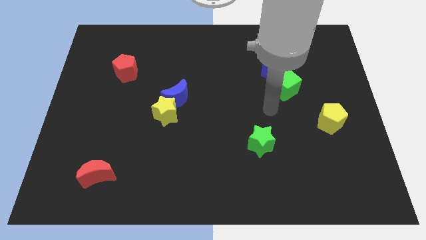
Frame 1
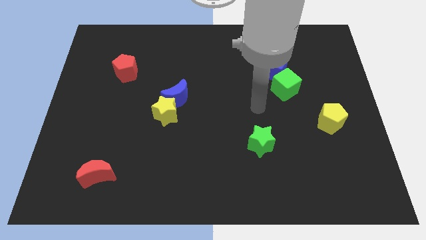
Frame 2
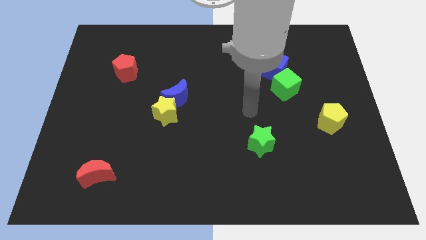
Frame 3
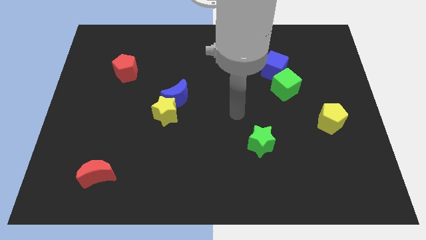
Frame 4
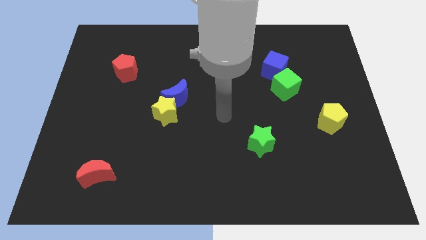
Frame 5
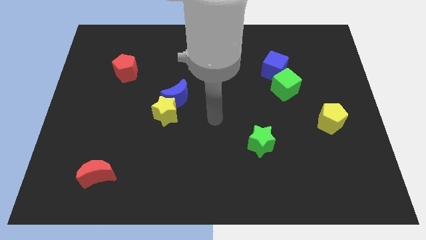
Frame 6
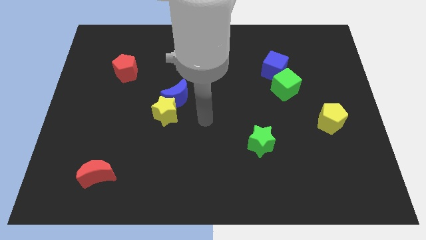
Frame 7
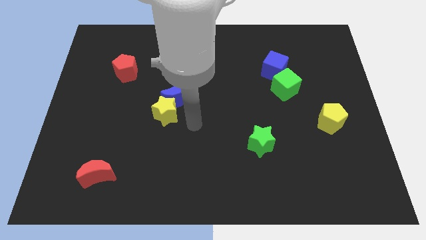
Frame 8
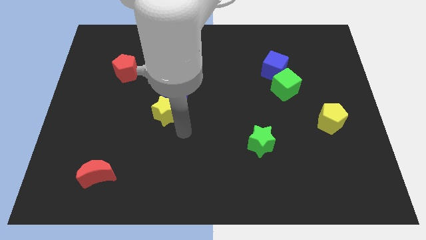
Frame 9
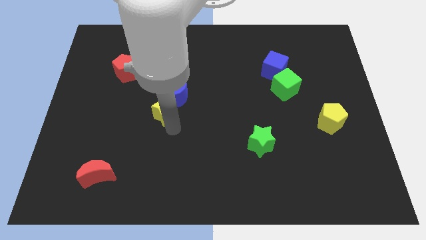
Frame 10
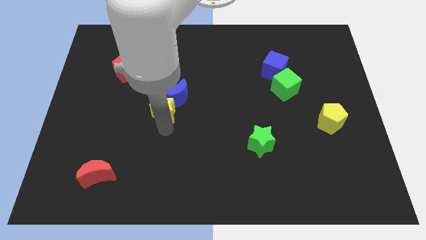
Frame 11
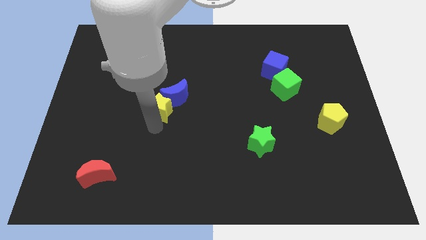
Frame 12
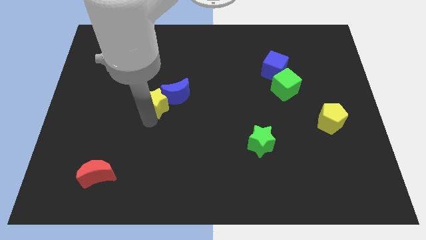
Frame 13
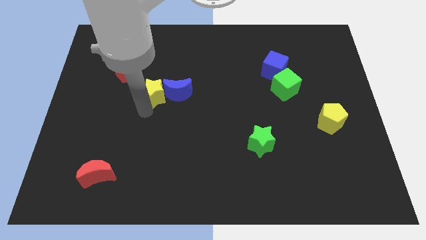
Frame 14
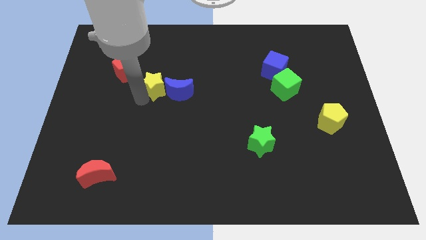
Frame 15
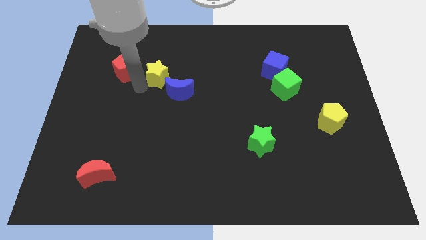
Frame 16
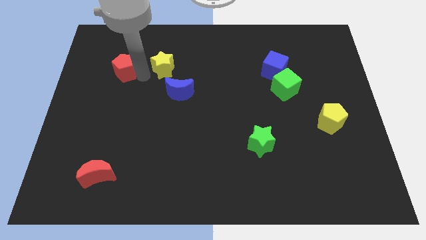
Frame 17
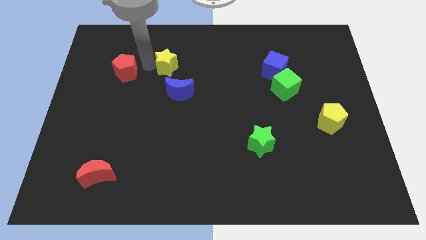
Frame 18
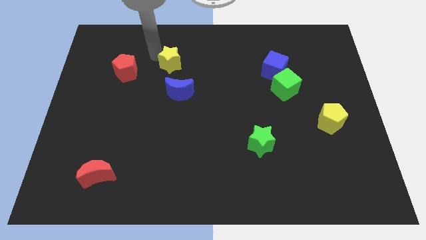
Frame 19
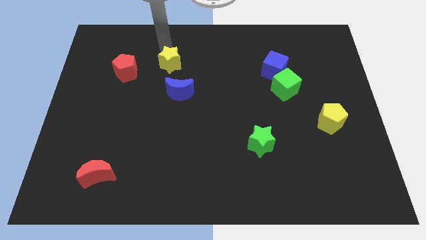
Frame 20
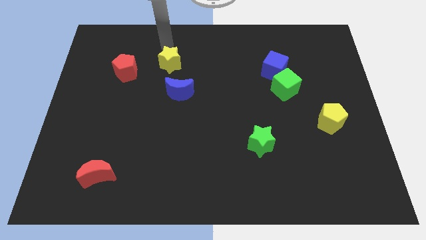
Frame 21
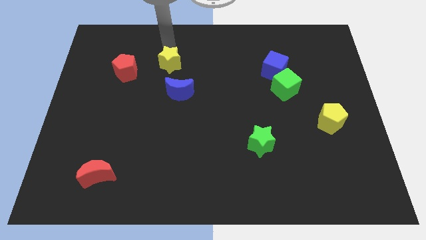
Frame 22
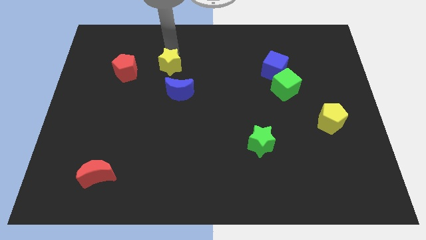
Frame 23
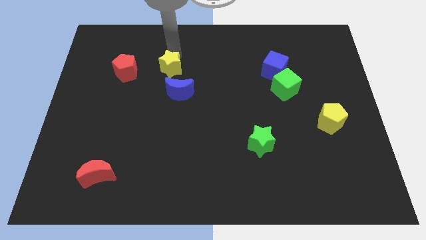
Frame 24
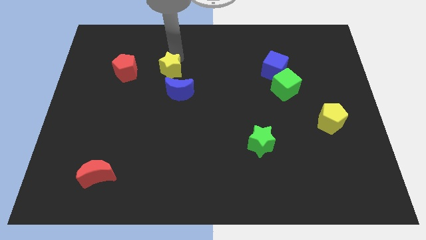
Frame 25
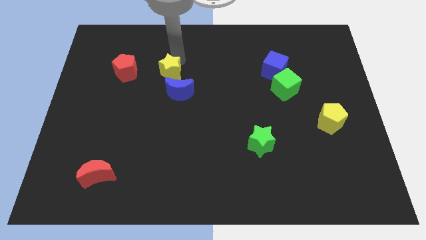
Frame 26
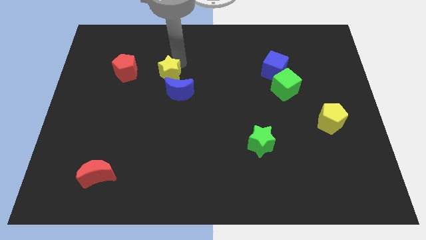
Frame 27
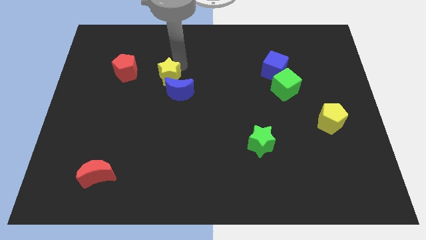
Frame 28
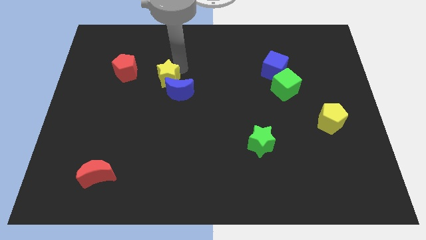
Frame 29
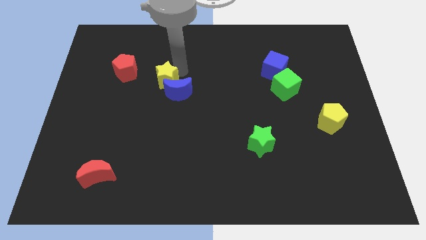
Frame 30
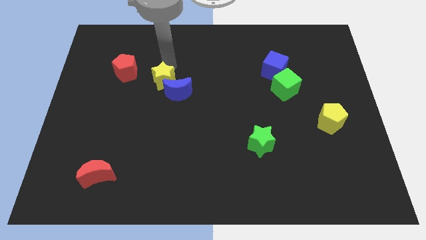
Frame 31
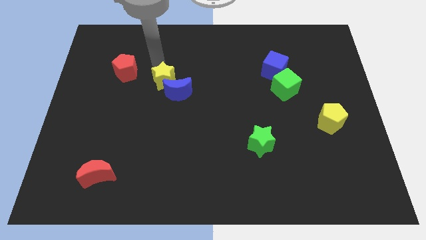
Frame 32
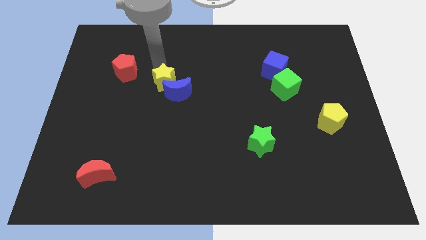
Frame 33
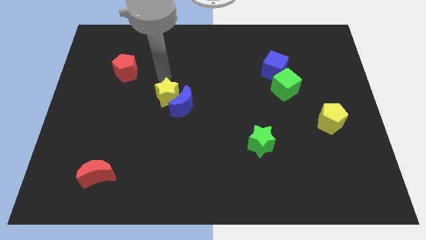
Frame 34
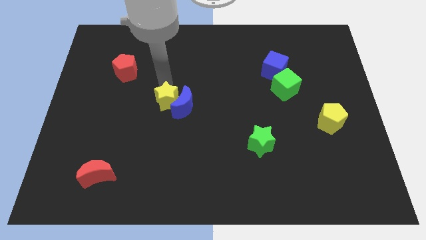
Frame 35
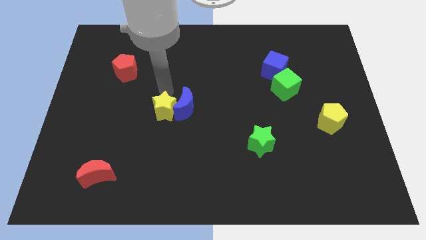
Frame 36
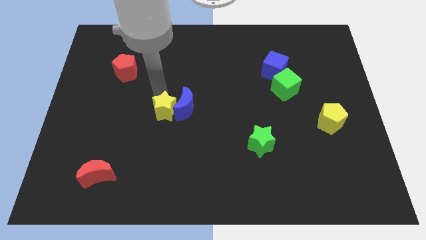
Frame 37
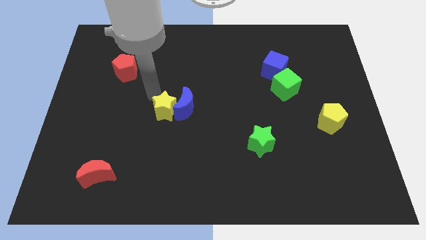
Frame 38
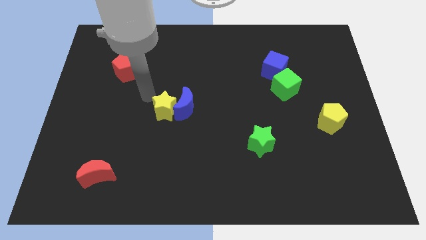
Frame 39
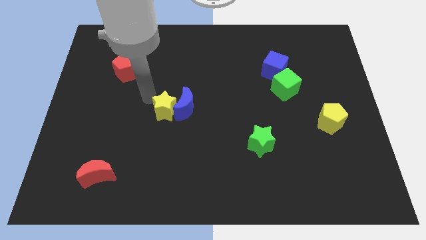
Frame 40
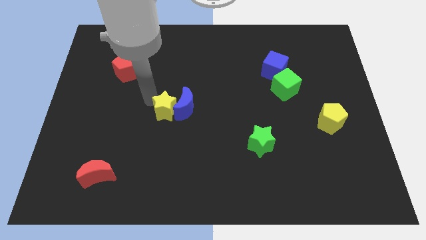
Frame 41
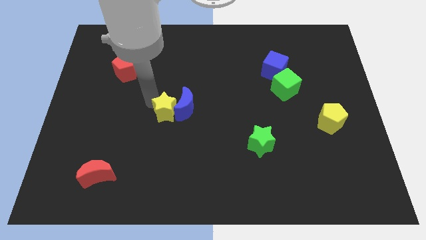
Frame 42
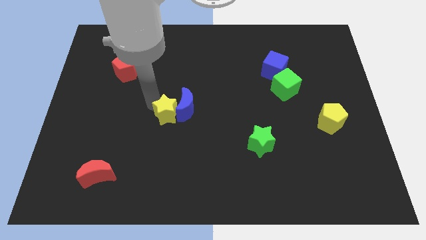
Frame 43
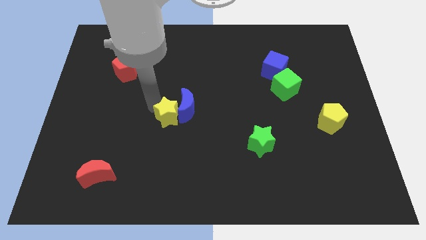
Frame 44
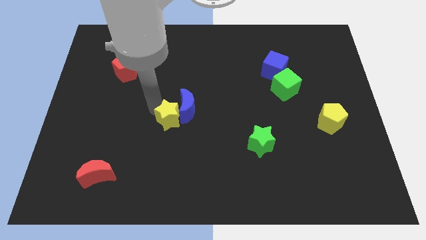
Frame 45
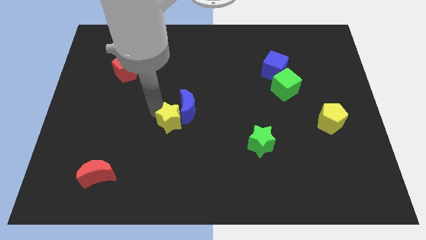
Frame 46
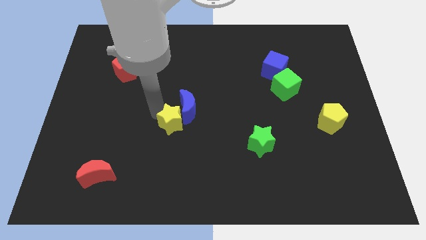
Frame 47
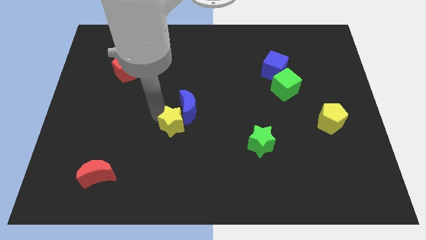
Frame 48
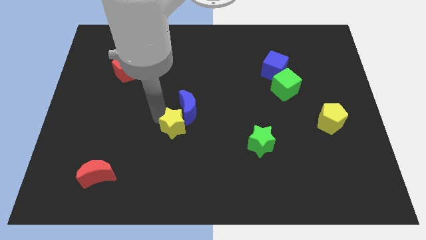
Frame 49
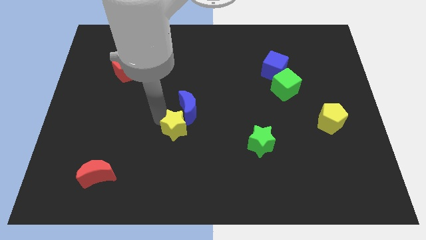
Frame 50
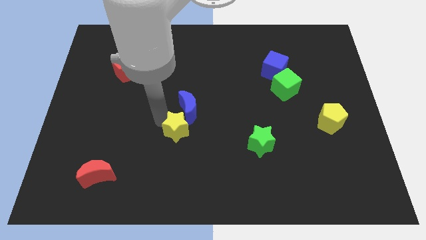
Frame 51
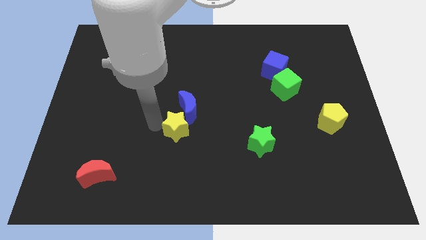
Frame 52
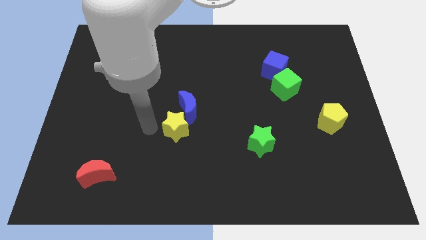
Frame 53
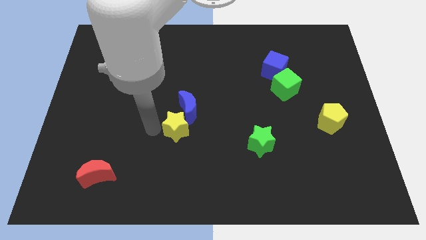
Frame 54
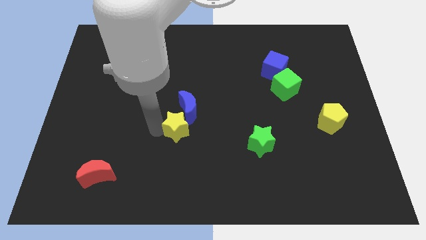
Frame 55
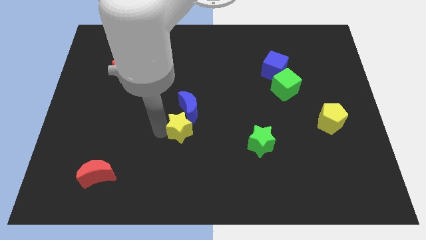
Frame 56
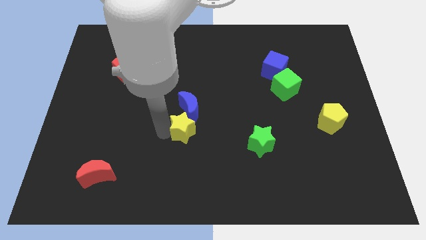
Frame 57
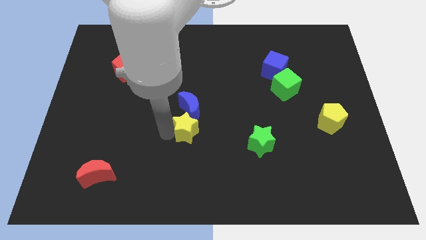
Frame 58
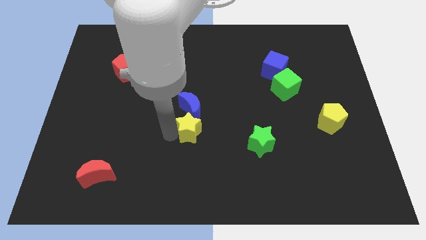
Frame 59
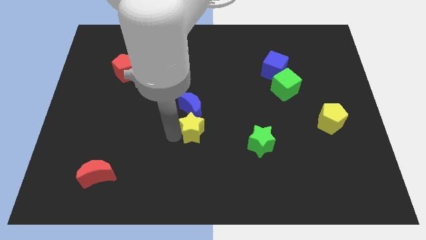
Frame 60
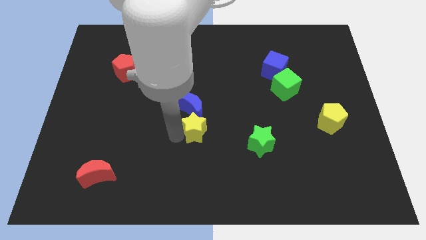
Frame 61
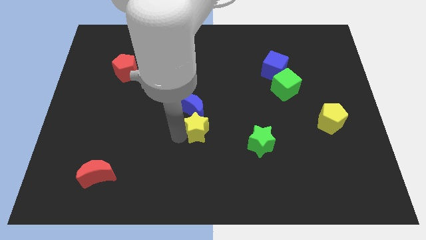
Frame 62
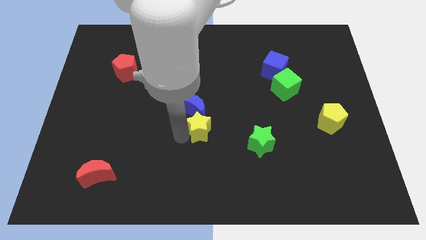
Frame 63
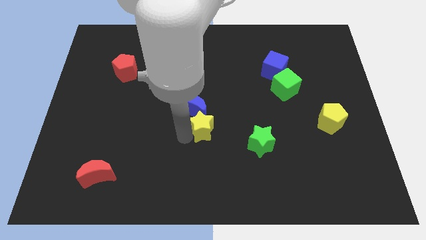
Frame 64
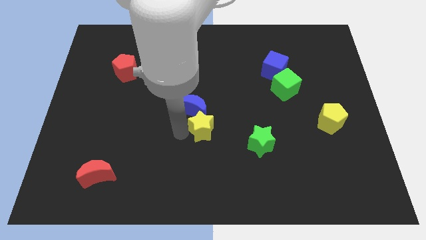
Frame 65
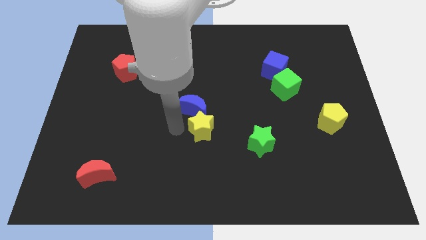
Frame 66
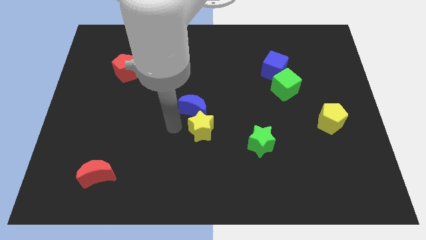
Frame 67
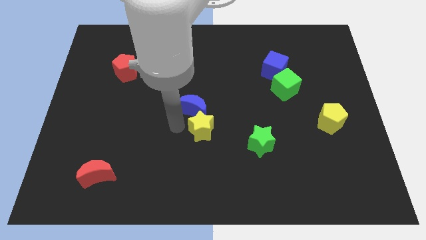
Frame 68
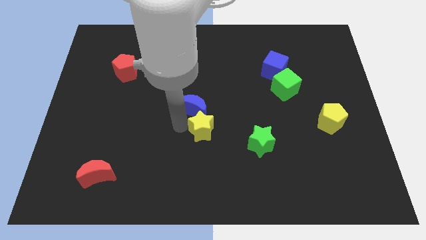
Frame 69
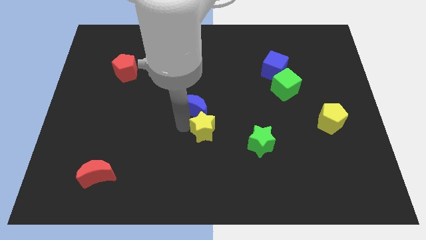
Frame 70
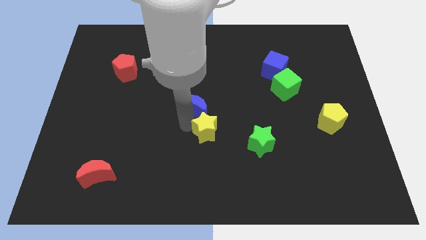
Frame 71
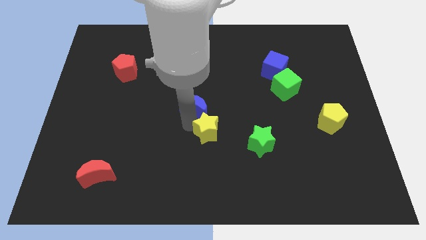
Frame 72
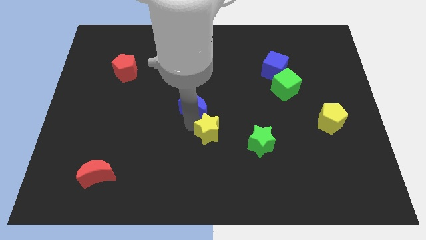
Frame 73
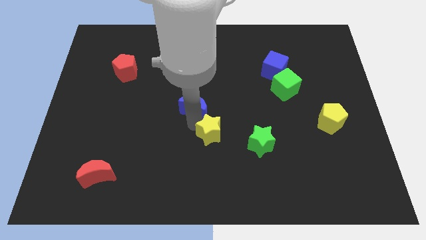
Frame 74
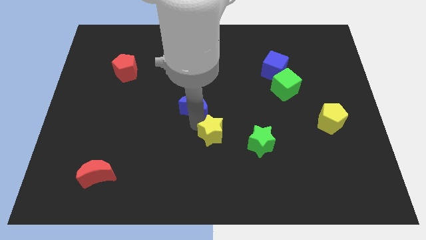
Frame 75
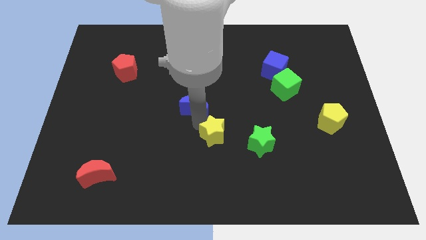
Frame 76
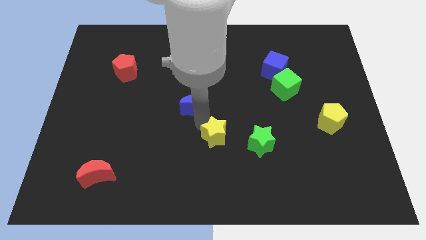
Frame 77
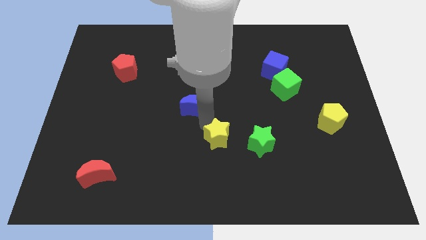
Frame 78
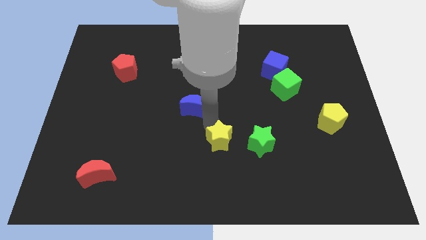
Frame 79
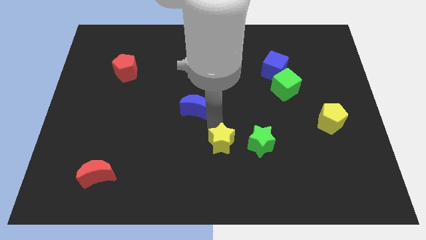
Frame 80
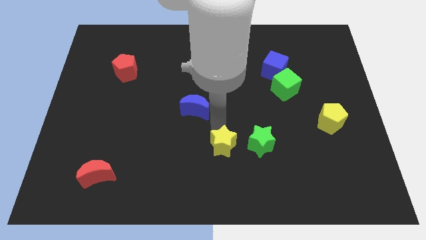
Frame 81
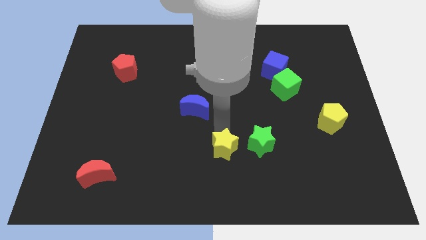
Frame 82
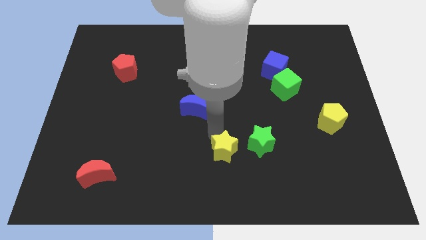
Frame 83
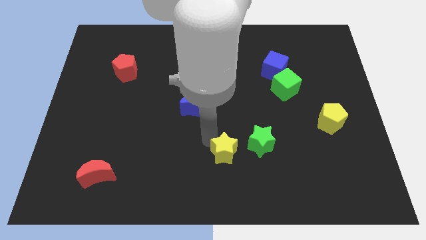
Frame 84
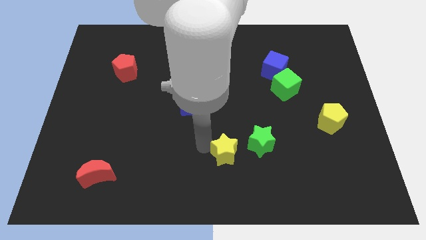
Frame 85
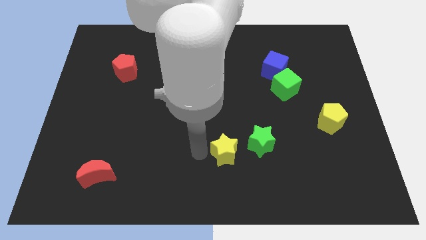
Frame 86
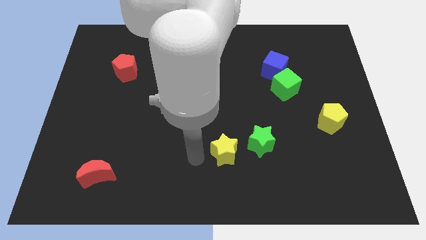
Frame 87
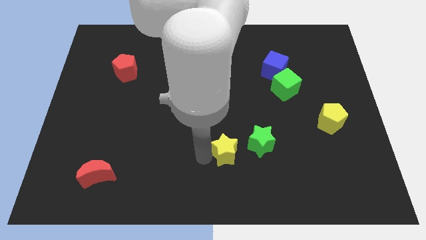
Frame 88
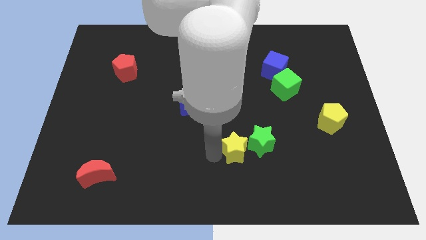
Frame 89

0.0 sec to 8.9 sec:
slide the yellow star towards the green star
